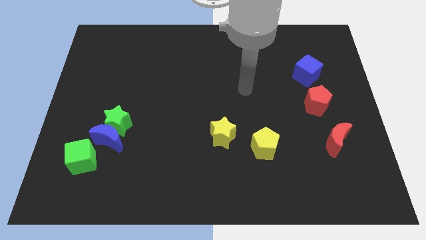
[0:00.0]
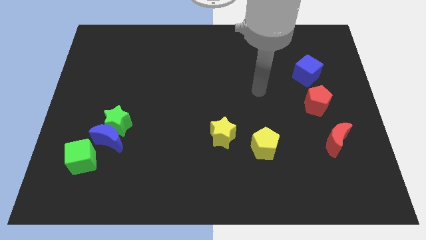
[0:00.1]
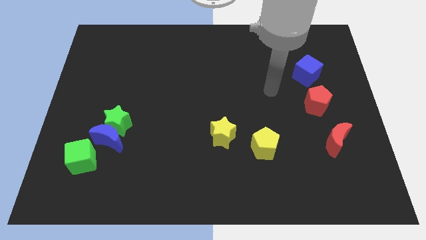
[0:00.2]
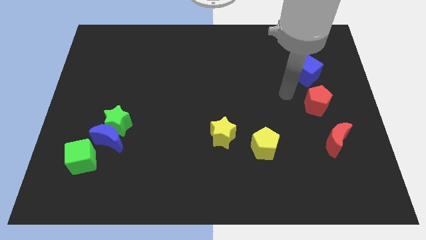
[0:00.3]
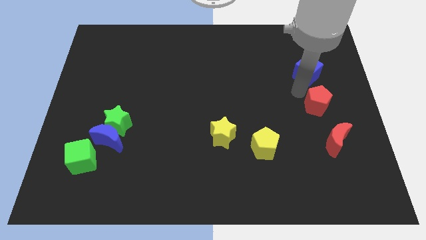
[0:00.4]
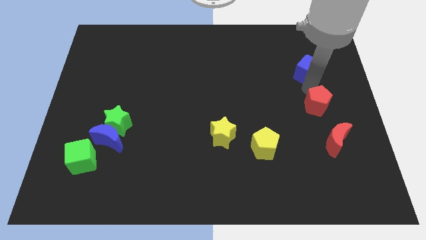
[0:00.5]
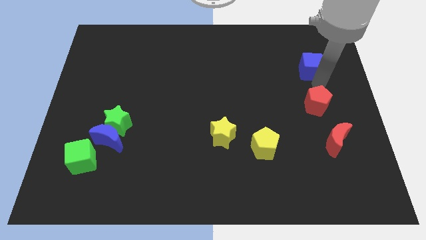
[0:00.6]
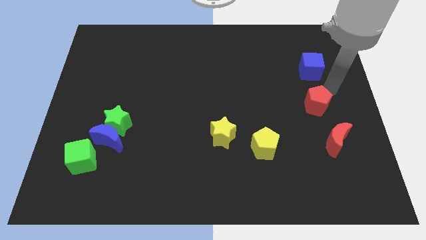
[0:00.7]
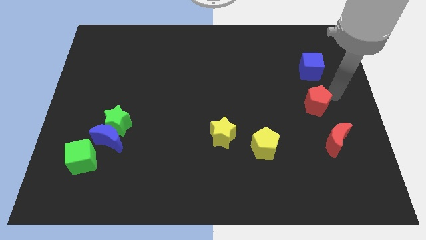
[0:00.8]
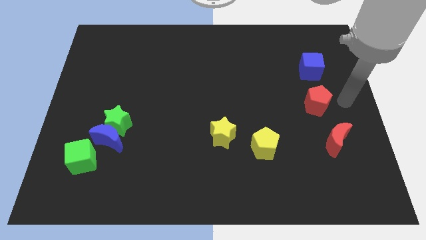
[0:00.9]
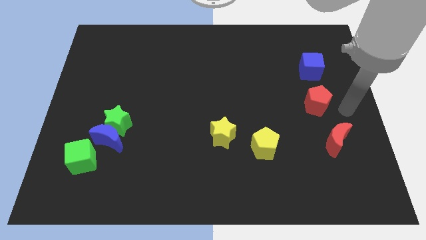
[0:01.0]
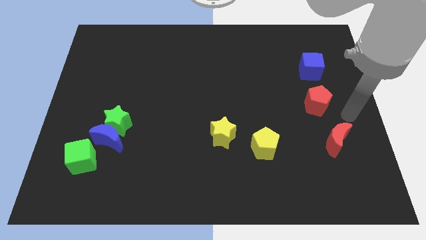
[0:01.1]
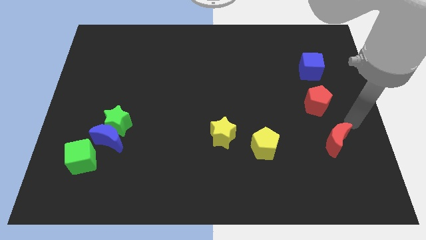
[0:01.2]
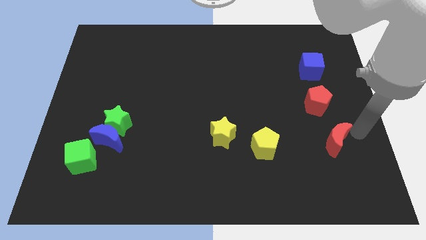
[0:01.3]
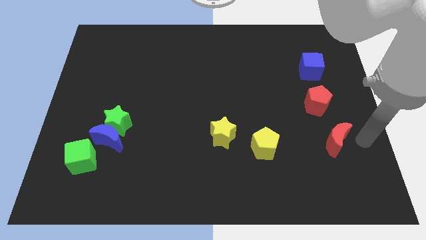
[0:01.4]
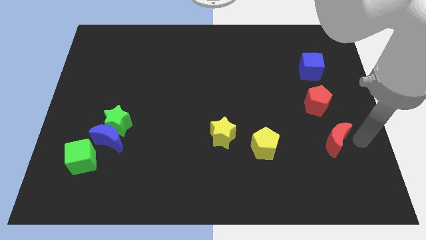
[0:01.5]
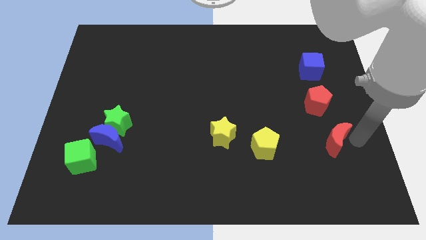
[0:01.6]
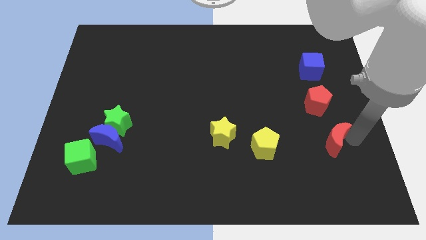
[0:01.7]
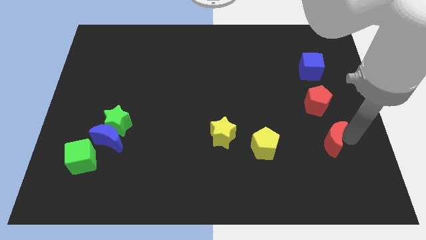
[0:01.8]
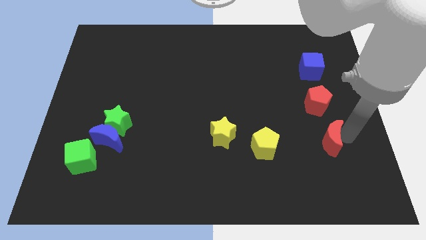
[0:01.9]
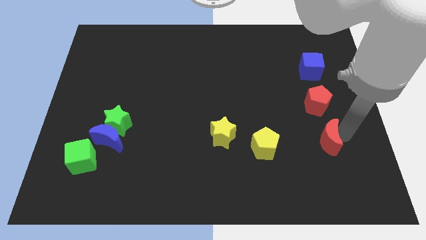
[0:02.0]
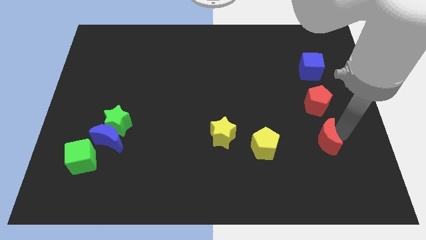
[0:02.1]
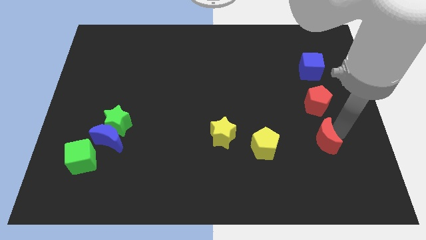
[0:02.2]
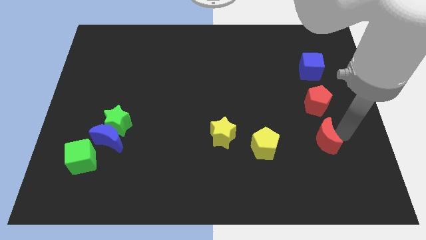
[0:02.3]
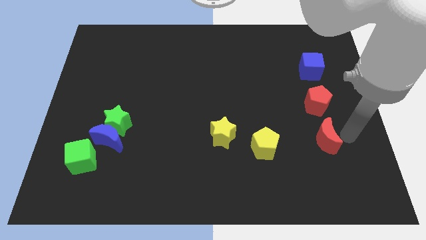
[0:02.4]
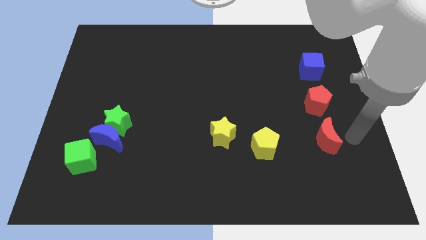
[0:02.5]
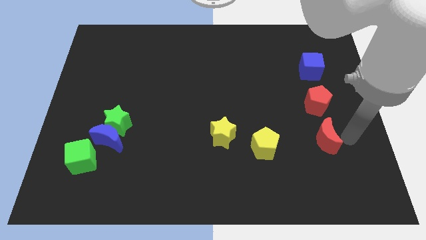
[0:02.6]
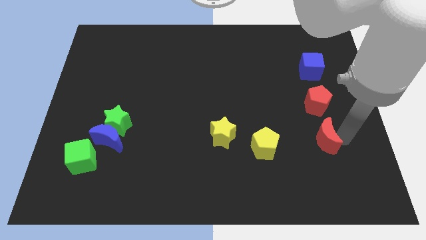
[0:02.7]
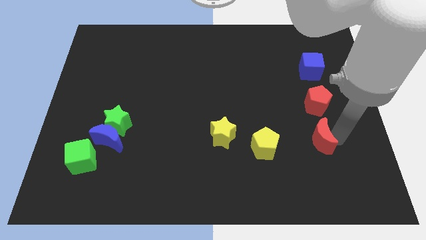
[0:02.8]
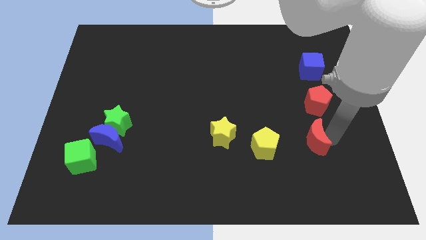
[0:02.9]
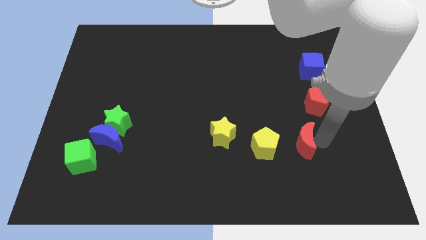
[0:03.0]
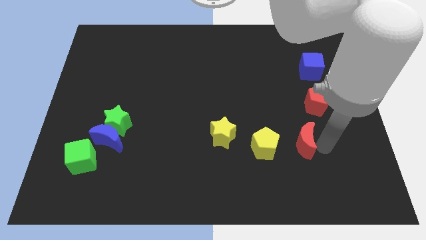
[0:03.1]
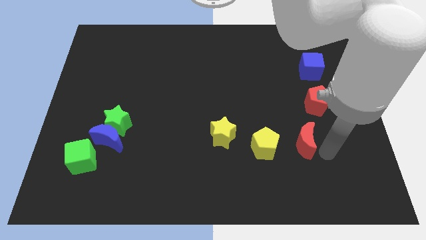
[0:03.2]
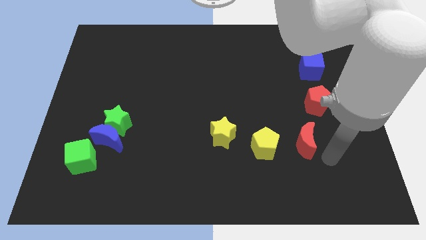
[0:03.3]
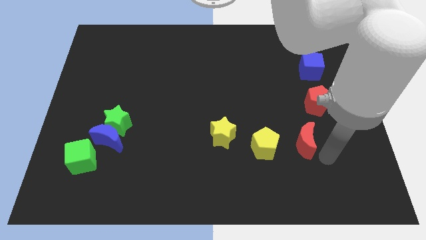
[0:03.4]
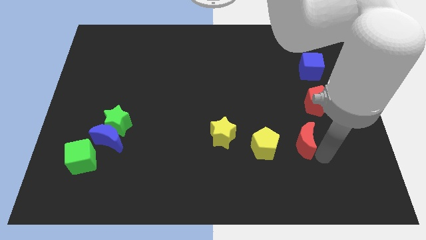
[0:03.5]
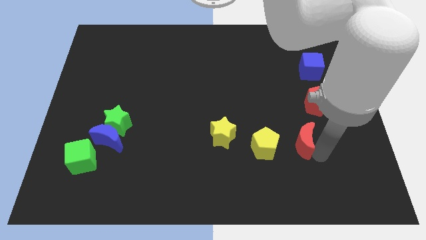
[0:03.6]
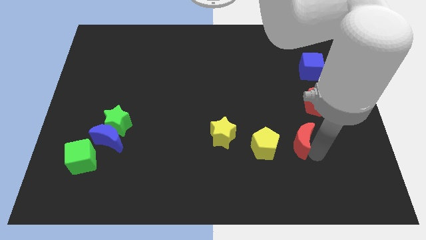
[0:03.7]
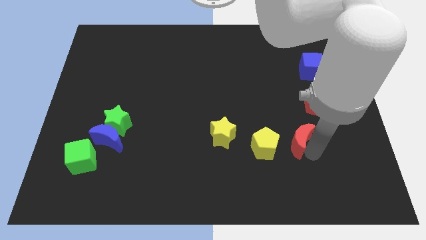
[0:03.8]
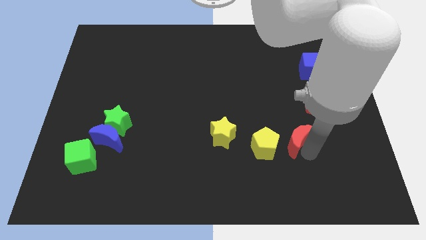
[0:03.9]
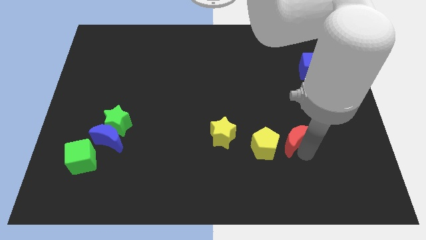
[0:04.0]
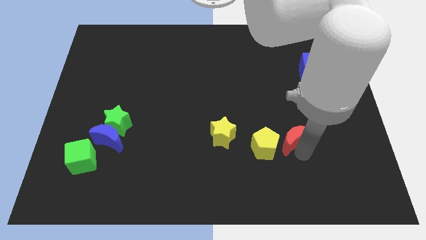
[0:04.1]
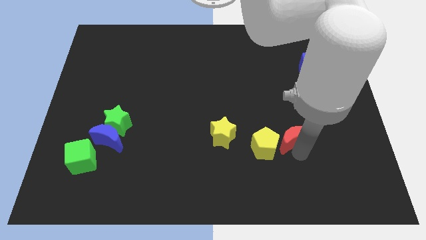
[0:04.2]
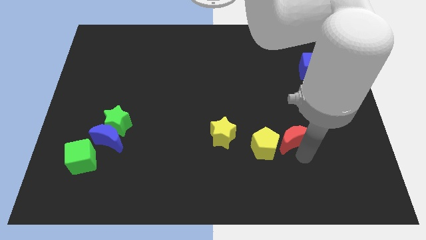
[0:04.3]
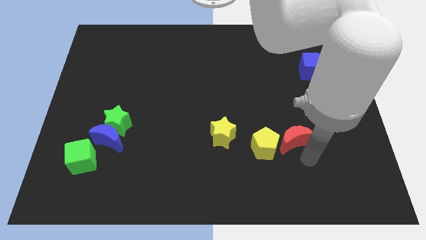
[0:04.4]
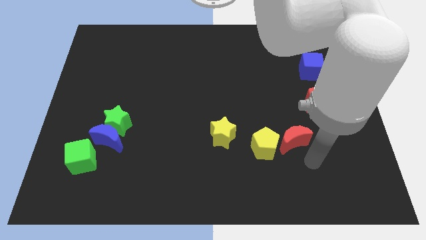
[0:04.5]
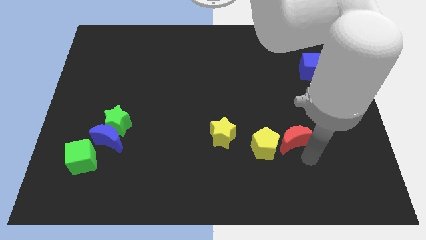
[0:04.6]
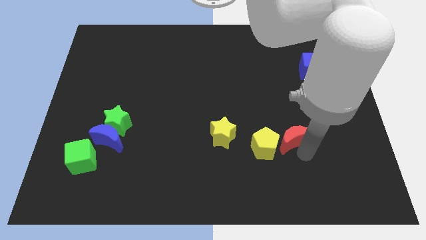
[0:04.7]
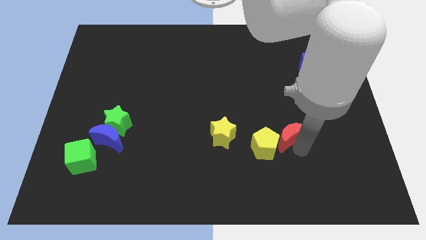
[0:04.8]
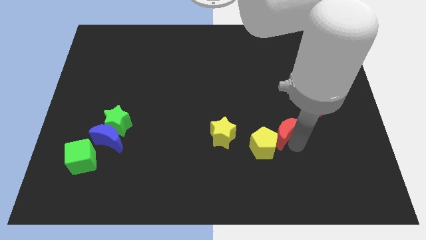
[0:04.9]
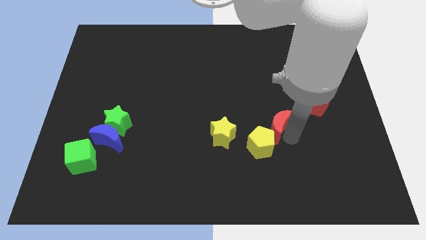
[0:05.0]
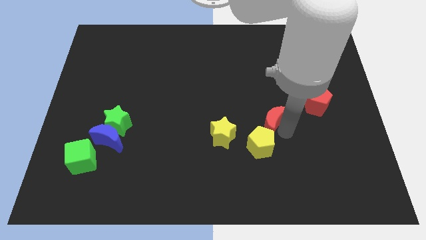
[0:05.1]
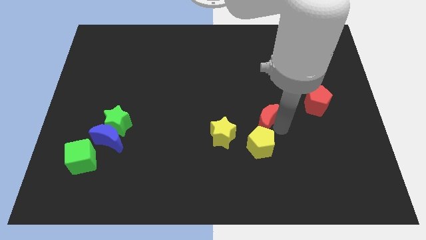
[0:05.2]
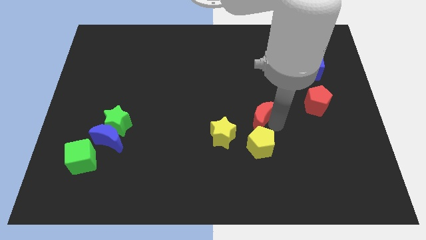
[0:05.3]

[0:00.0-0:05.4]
slide the red moon to the middle

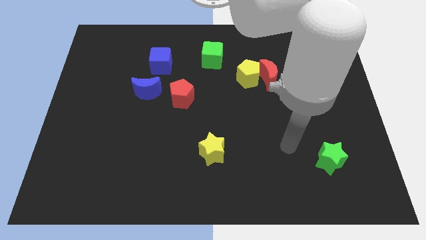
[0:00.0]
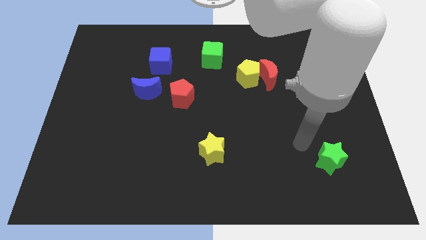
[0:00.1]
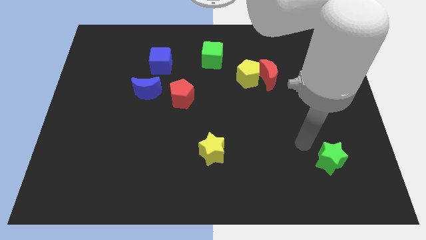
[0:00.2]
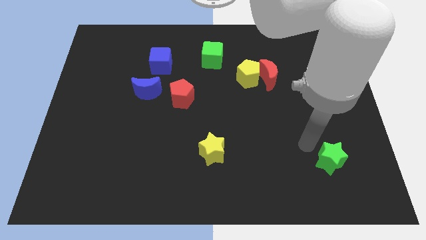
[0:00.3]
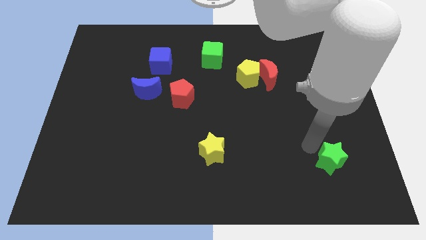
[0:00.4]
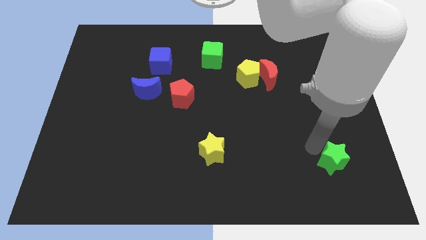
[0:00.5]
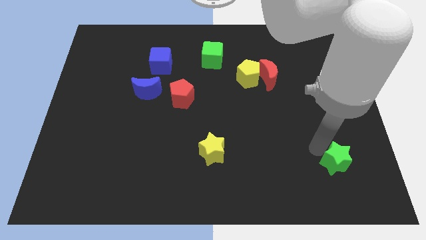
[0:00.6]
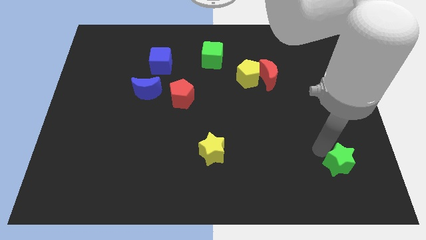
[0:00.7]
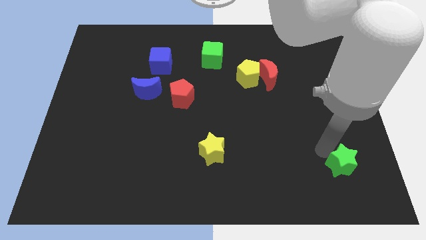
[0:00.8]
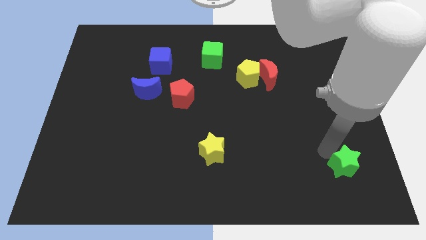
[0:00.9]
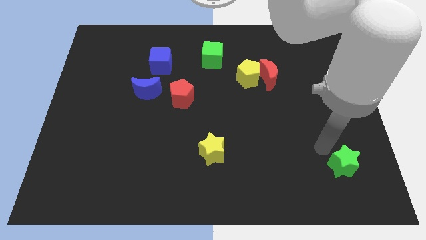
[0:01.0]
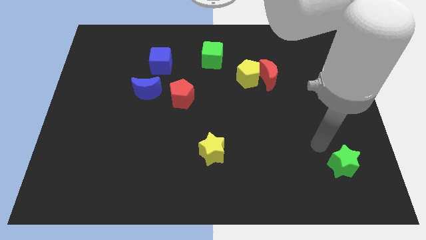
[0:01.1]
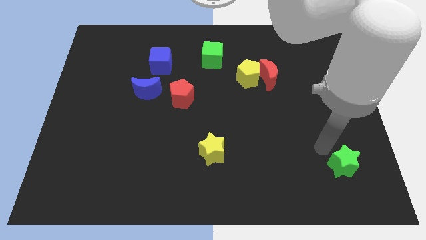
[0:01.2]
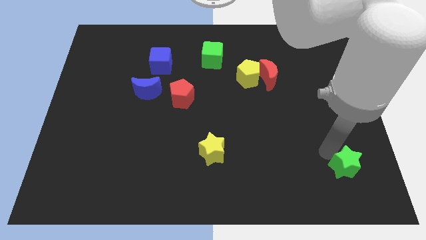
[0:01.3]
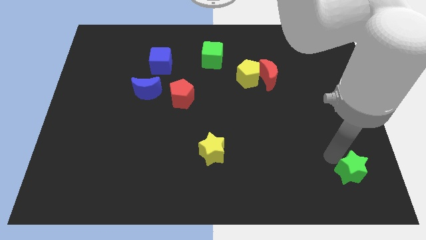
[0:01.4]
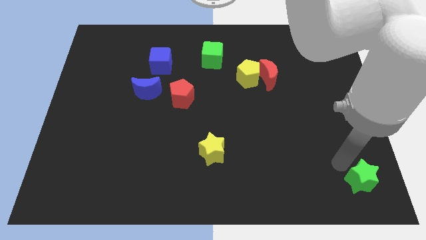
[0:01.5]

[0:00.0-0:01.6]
move the green star to the lower right corner
